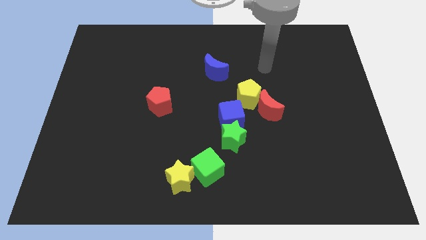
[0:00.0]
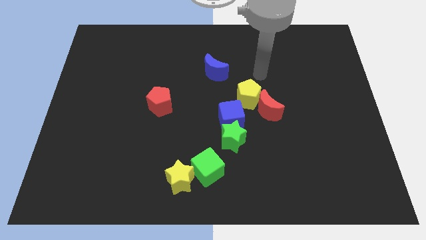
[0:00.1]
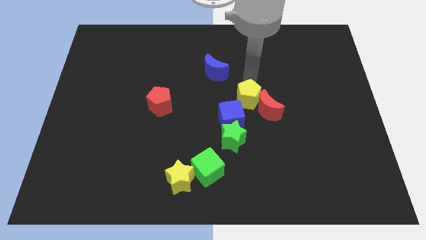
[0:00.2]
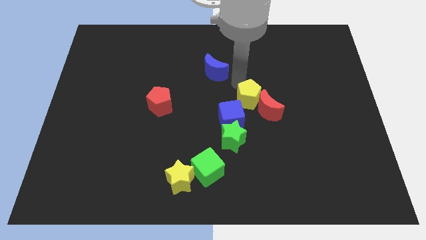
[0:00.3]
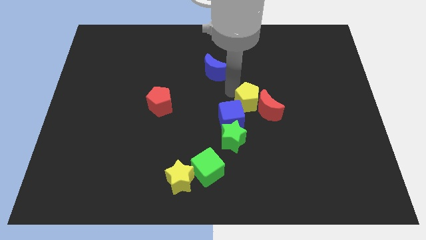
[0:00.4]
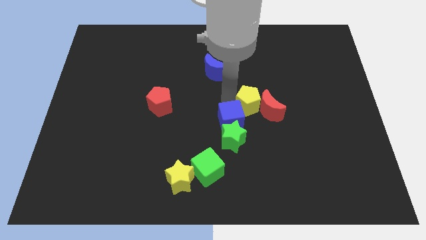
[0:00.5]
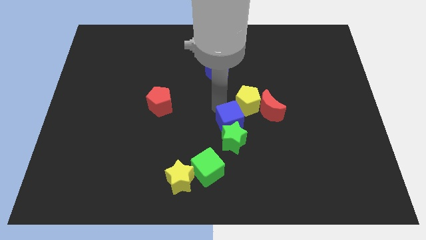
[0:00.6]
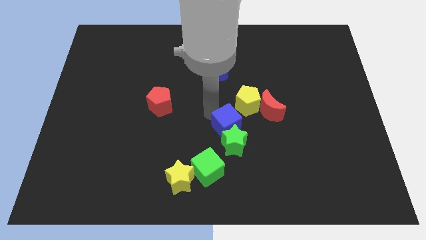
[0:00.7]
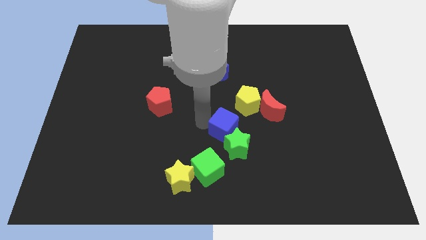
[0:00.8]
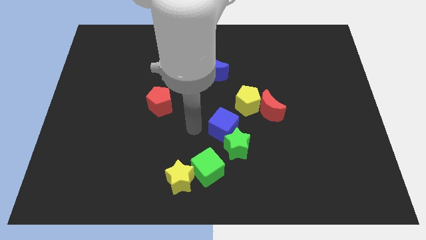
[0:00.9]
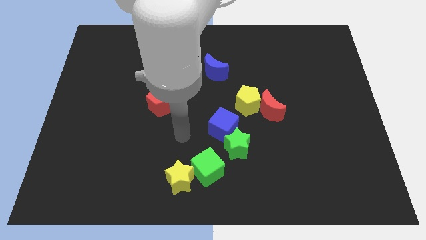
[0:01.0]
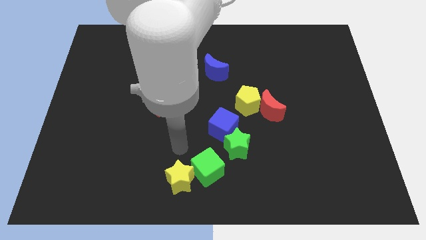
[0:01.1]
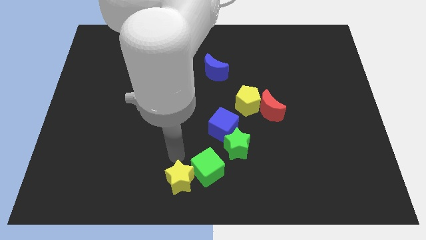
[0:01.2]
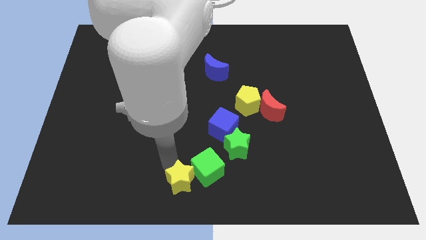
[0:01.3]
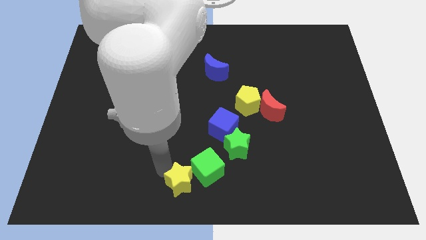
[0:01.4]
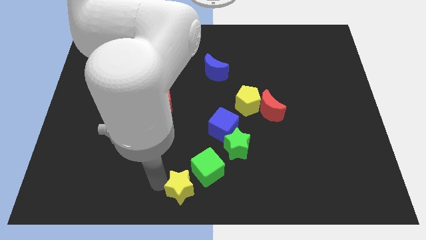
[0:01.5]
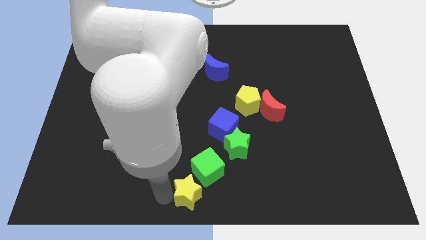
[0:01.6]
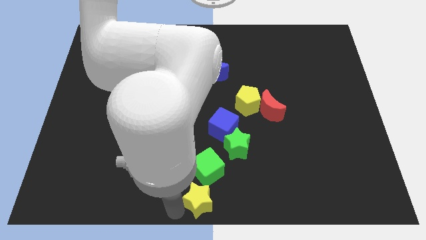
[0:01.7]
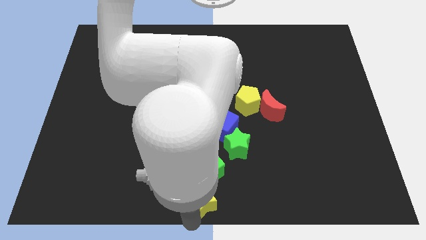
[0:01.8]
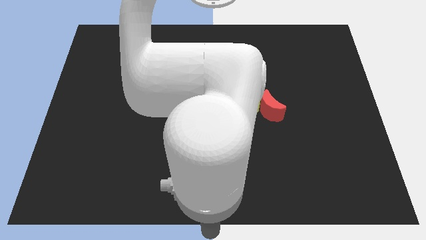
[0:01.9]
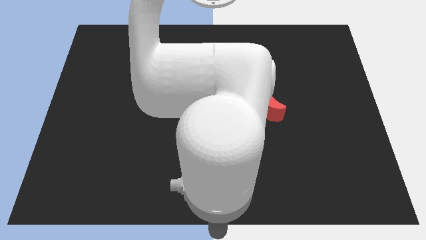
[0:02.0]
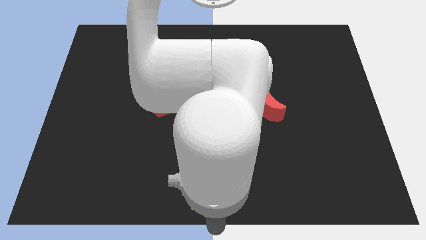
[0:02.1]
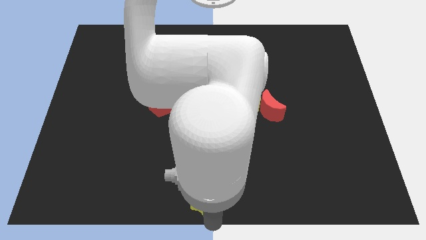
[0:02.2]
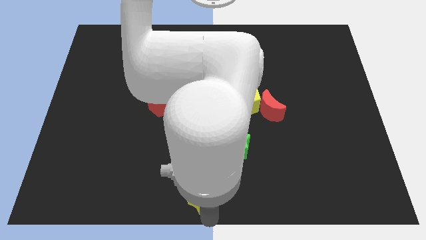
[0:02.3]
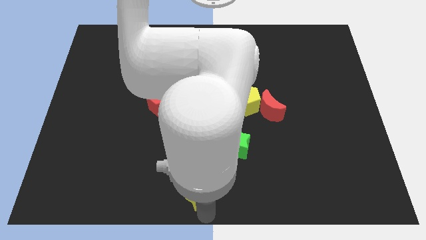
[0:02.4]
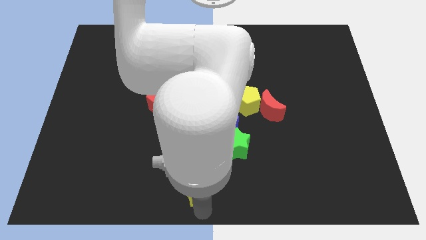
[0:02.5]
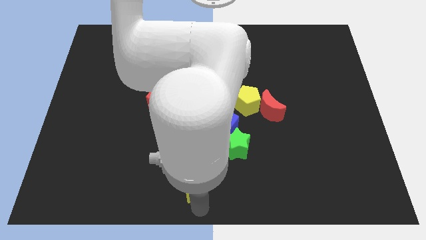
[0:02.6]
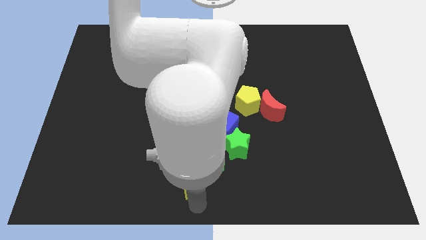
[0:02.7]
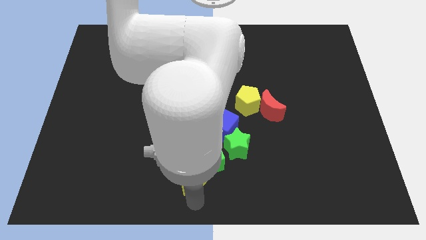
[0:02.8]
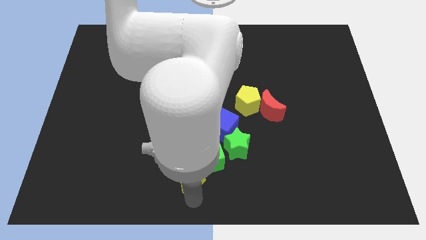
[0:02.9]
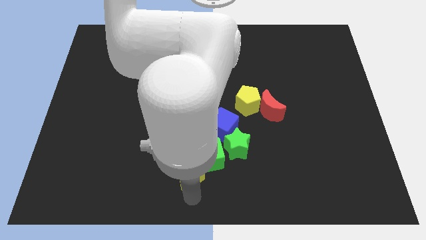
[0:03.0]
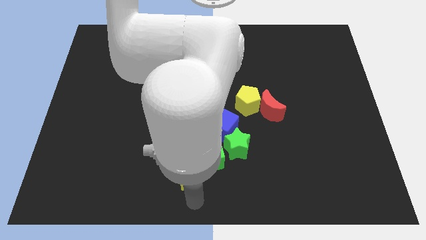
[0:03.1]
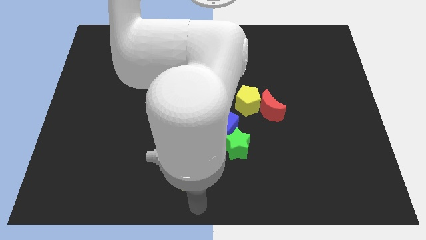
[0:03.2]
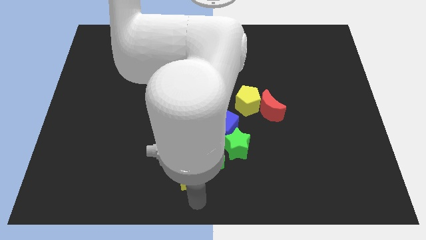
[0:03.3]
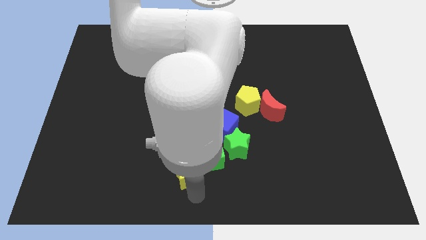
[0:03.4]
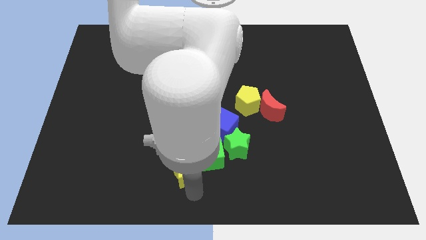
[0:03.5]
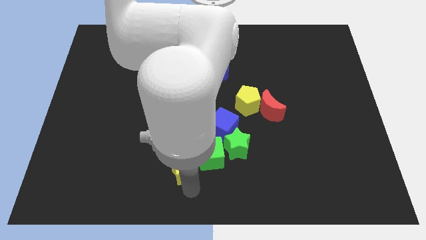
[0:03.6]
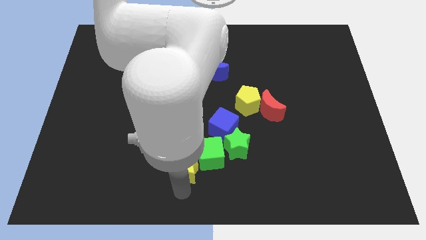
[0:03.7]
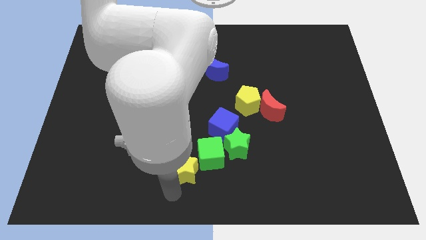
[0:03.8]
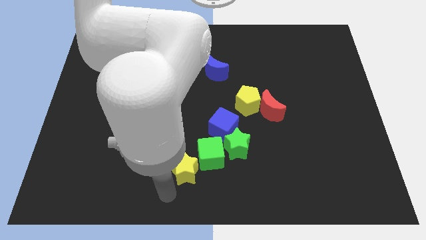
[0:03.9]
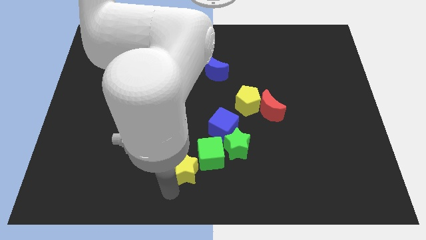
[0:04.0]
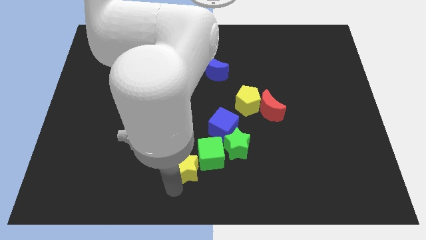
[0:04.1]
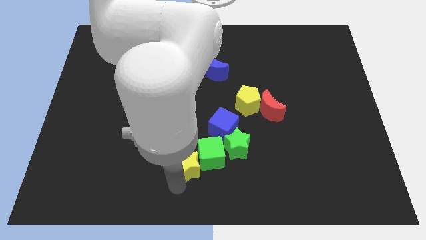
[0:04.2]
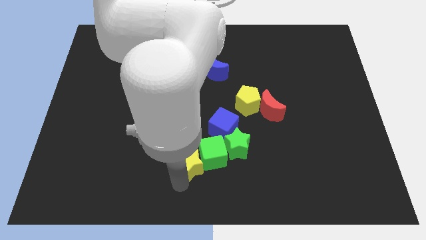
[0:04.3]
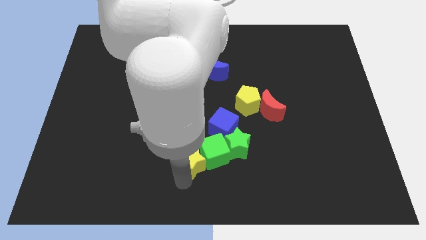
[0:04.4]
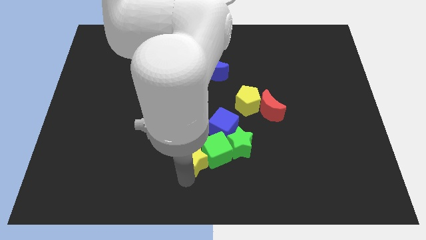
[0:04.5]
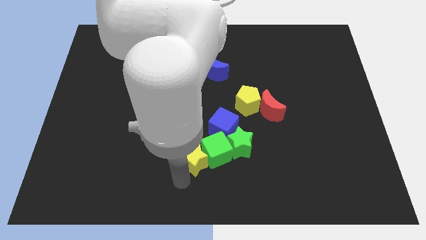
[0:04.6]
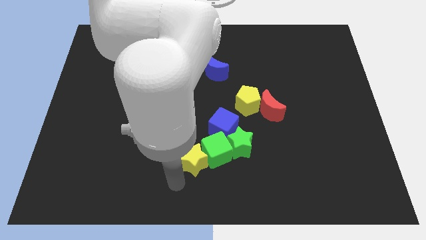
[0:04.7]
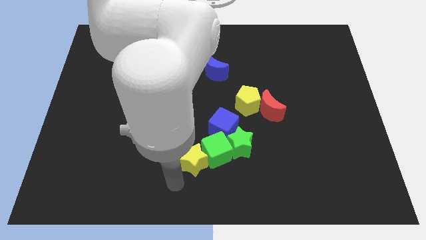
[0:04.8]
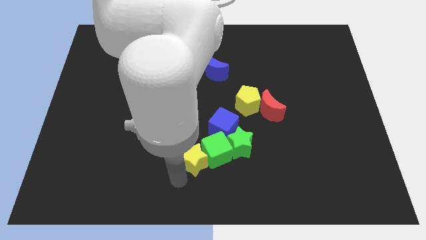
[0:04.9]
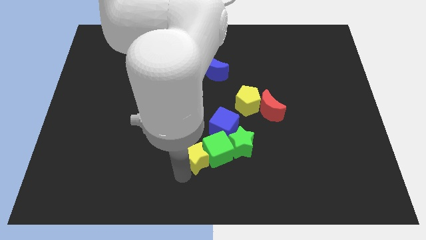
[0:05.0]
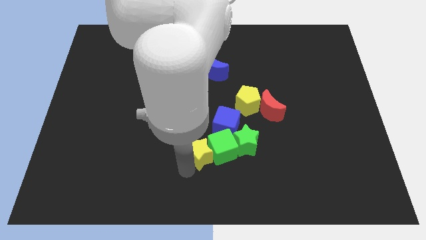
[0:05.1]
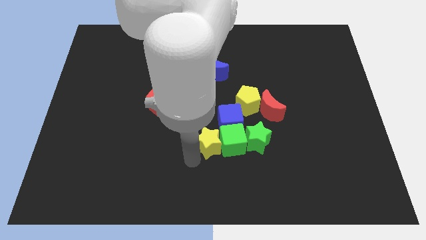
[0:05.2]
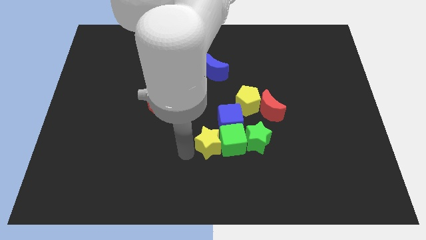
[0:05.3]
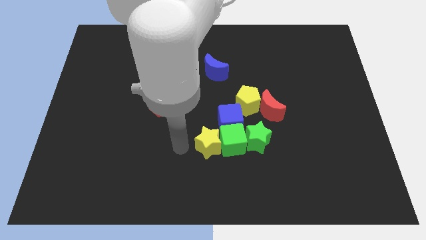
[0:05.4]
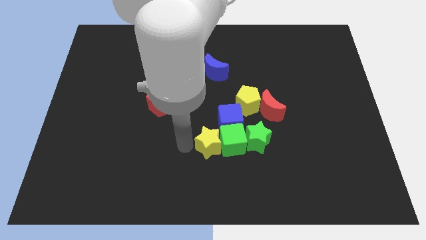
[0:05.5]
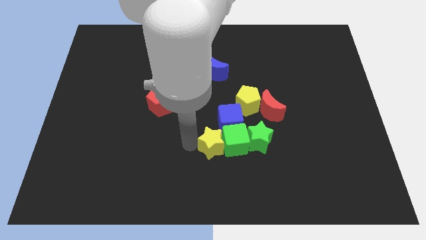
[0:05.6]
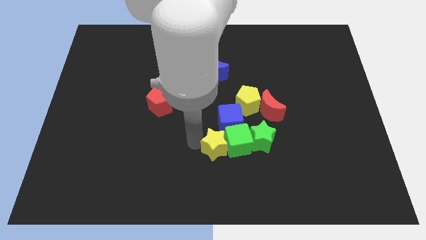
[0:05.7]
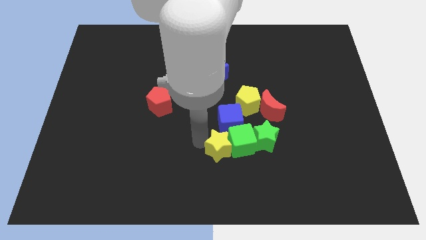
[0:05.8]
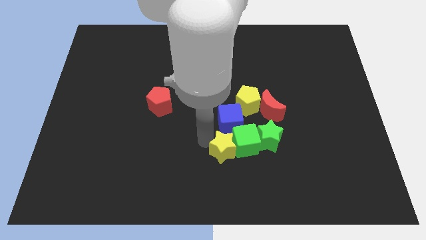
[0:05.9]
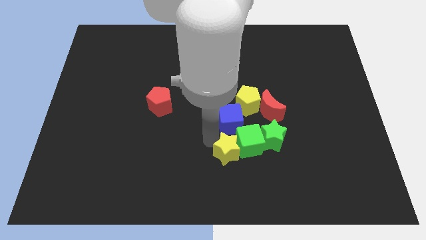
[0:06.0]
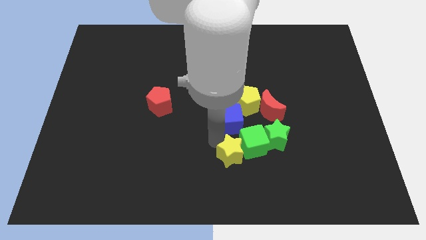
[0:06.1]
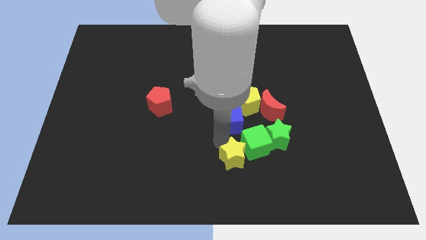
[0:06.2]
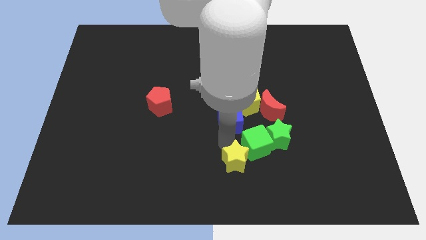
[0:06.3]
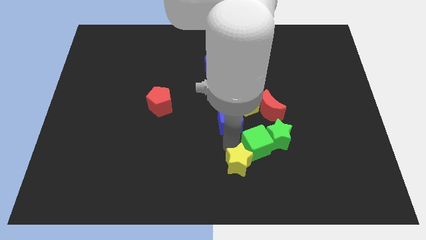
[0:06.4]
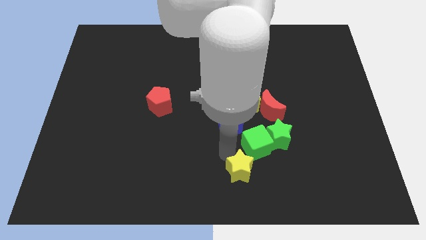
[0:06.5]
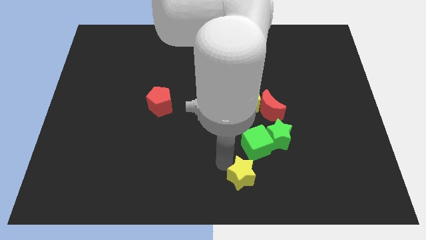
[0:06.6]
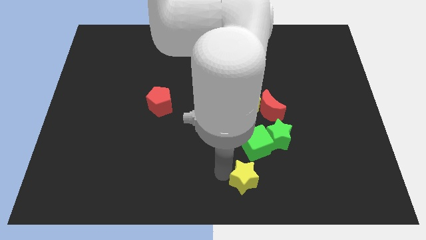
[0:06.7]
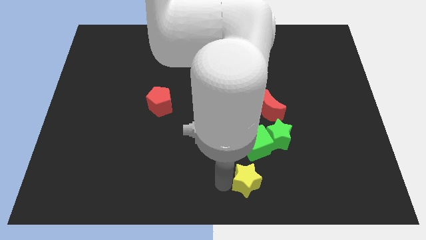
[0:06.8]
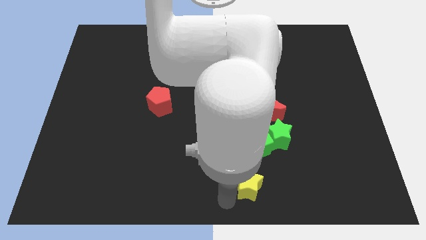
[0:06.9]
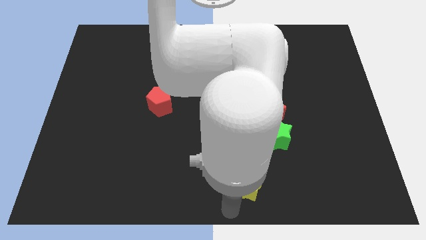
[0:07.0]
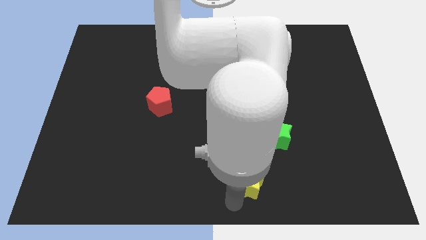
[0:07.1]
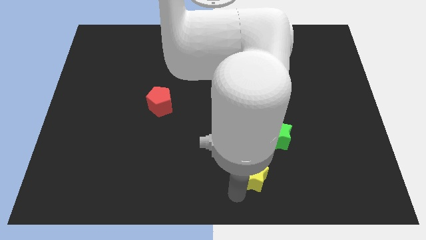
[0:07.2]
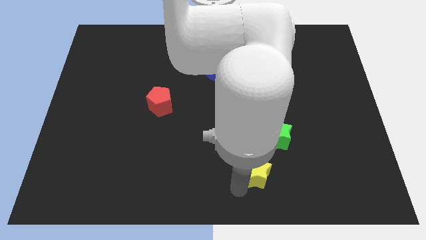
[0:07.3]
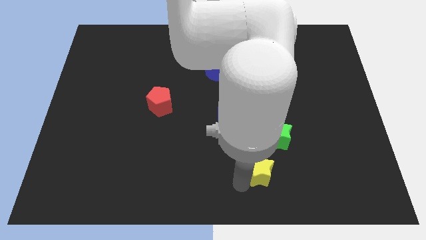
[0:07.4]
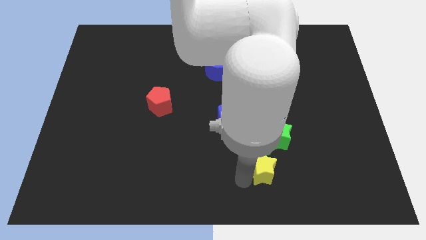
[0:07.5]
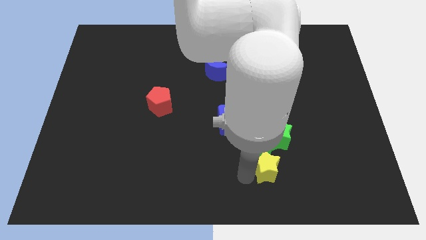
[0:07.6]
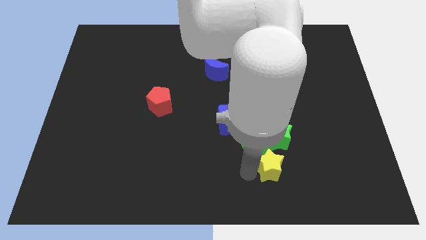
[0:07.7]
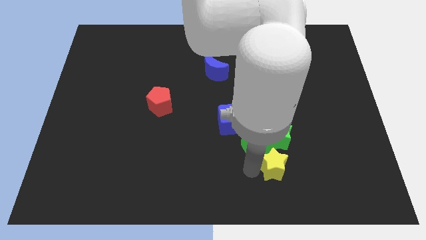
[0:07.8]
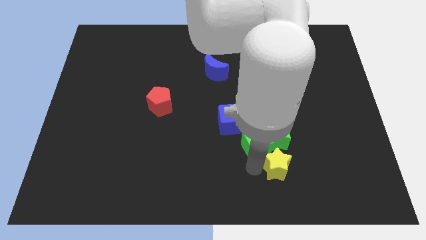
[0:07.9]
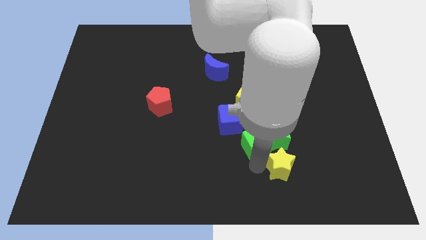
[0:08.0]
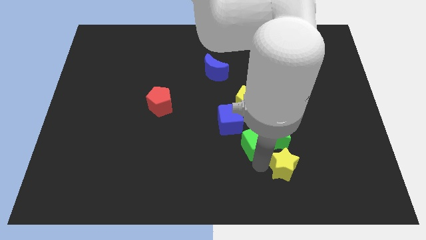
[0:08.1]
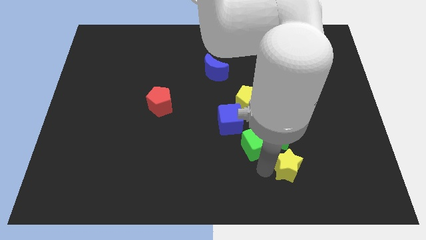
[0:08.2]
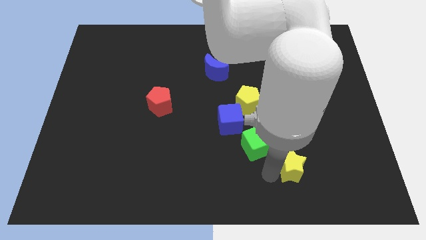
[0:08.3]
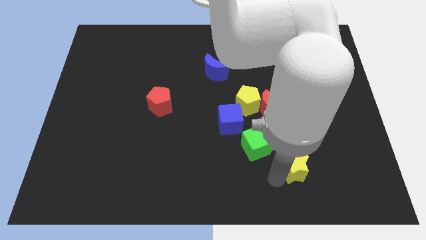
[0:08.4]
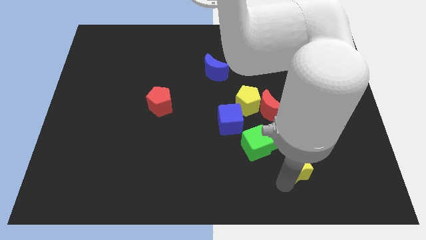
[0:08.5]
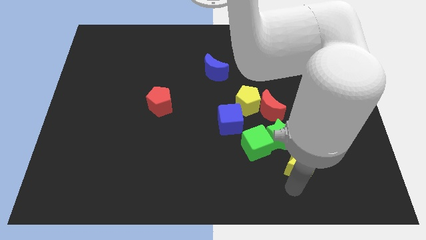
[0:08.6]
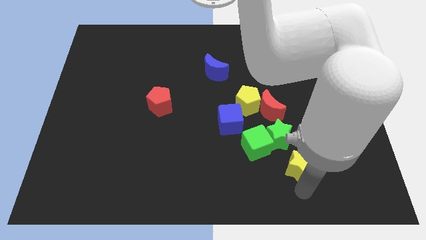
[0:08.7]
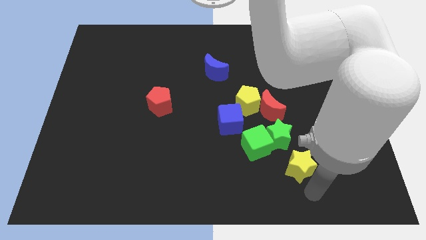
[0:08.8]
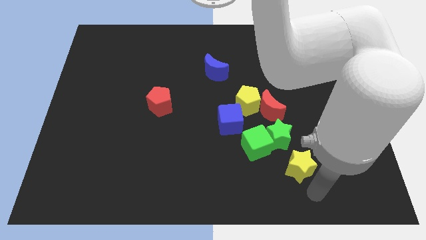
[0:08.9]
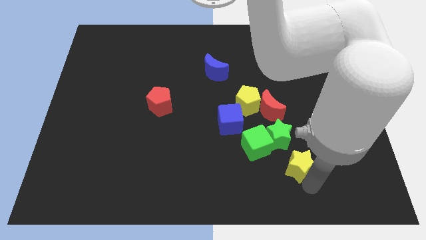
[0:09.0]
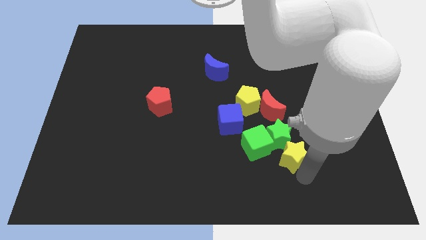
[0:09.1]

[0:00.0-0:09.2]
put the yellow star to the green star
